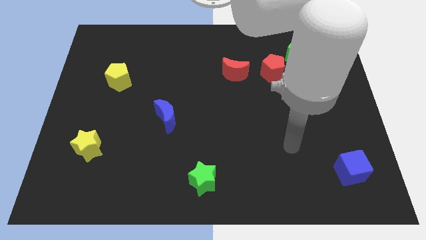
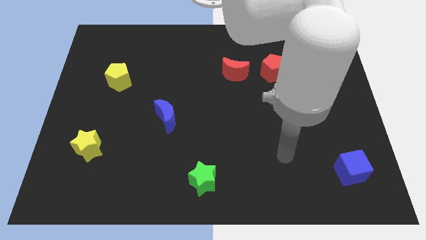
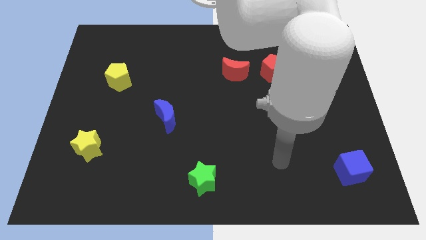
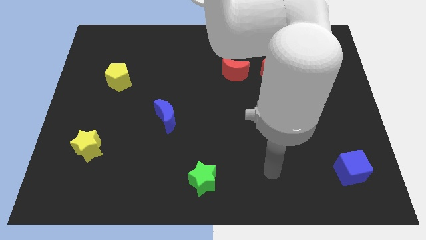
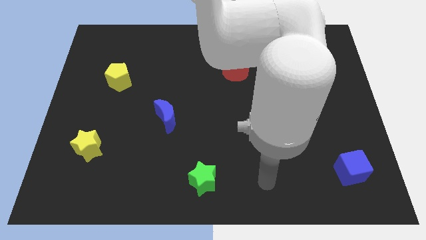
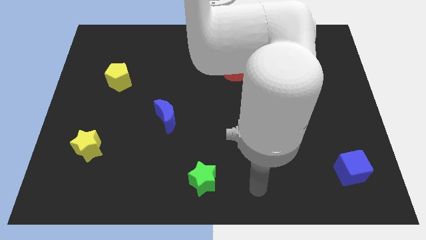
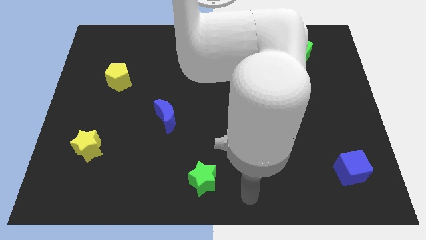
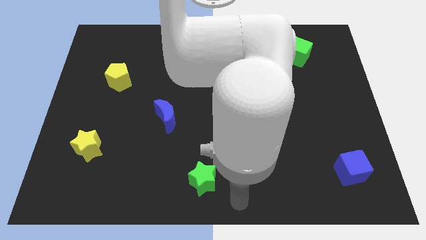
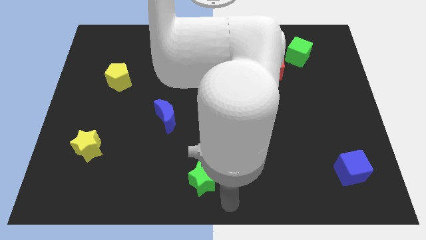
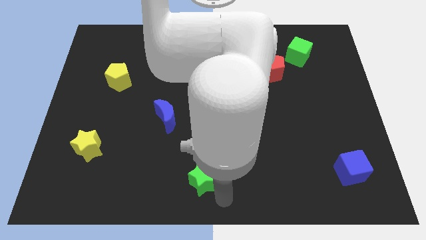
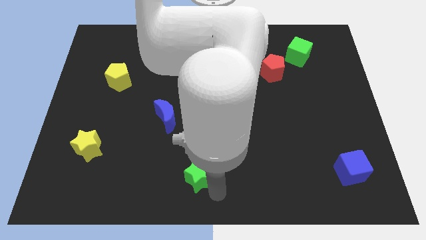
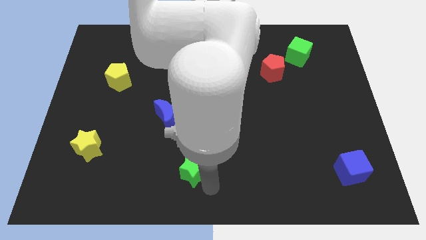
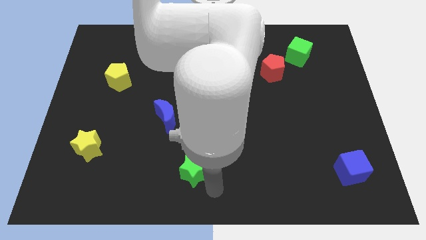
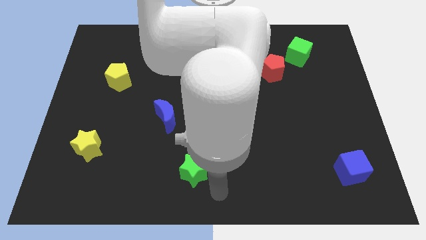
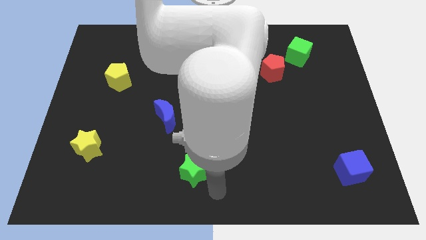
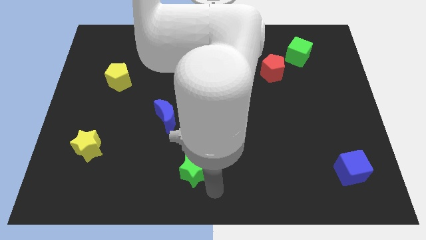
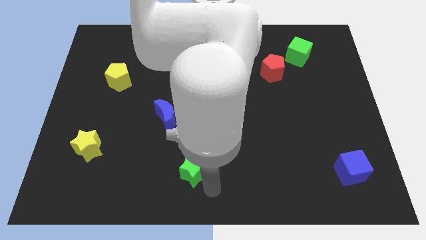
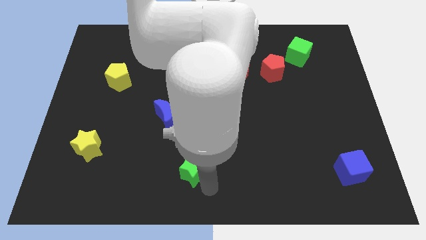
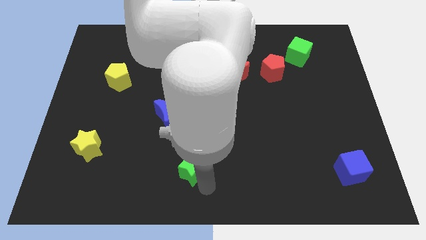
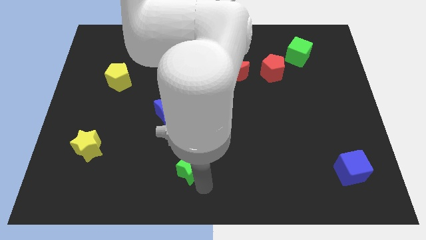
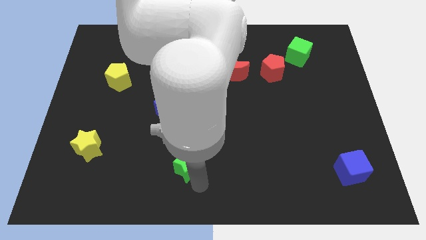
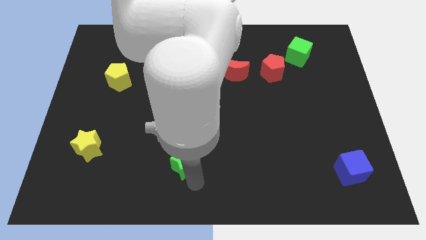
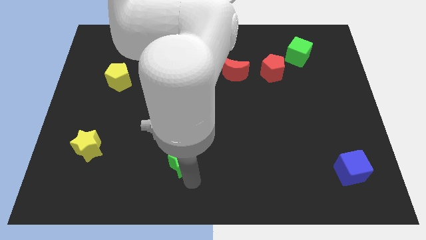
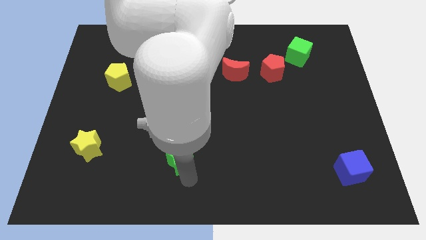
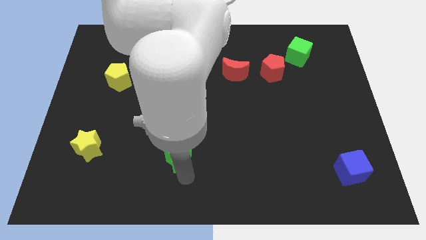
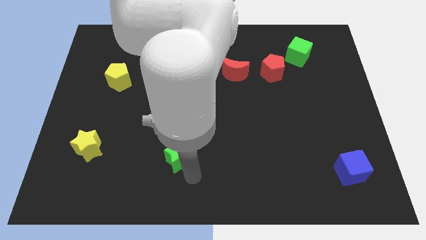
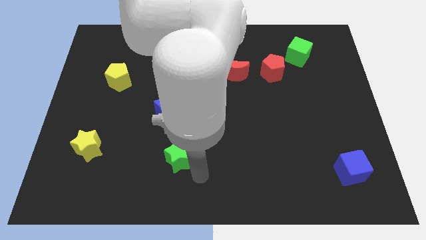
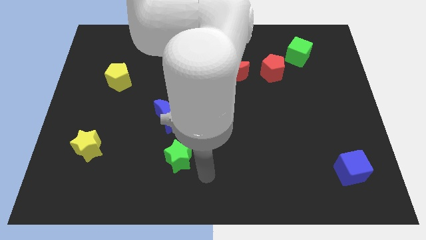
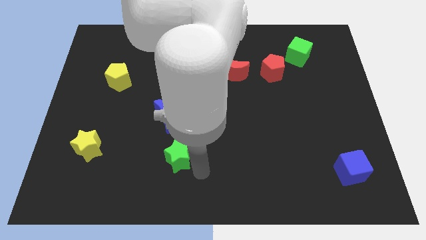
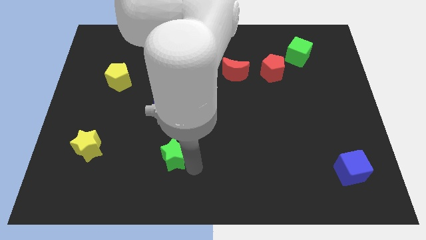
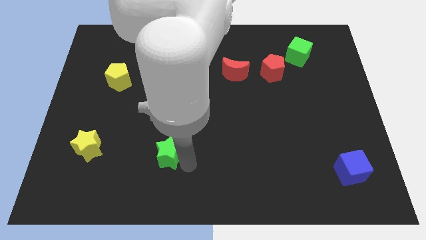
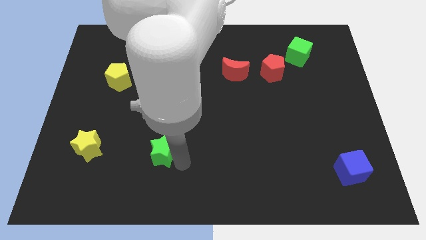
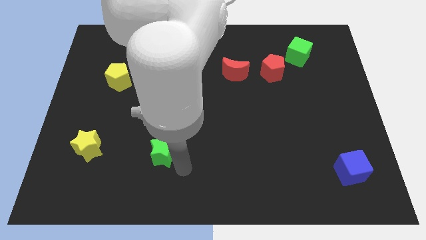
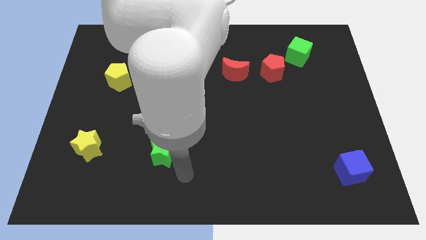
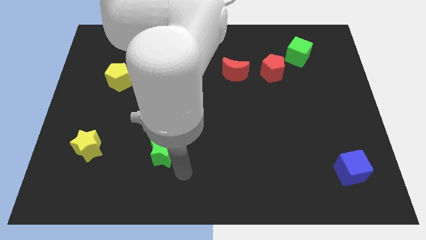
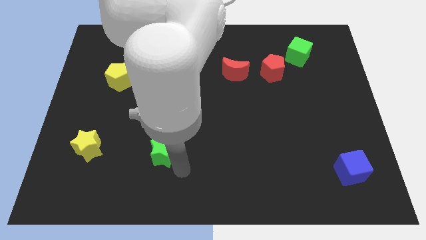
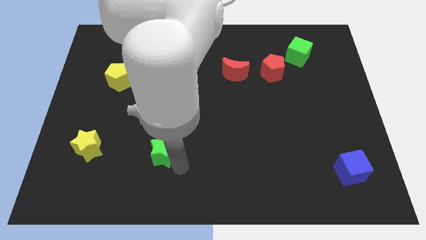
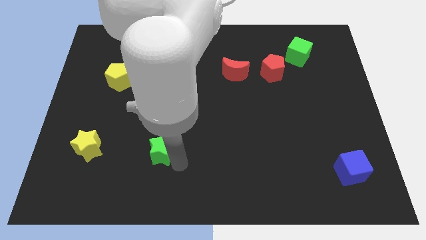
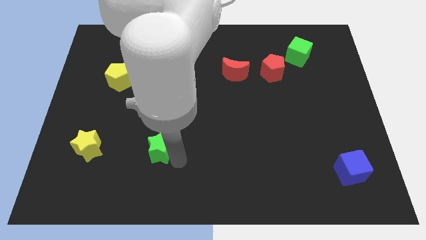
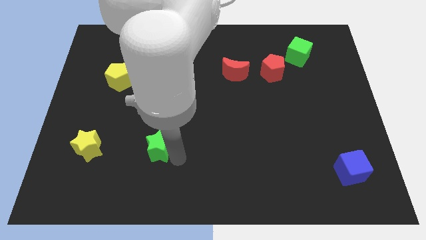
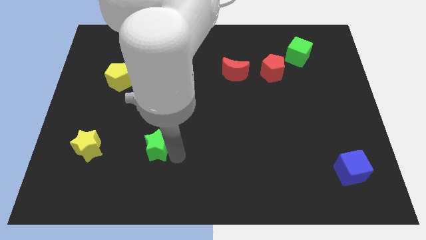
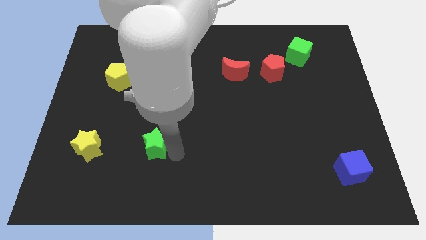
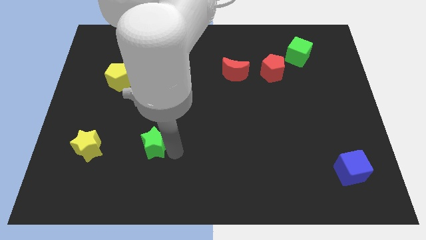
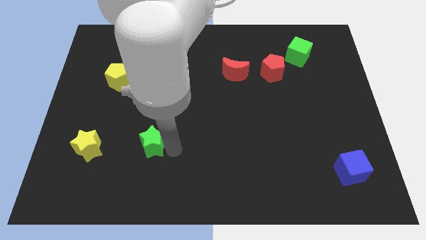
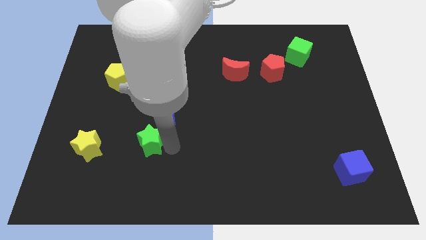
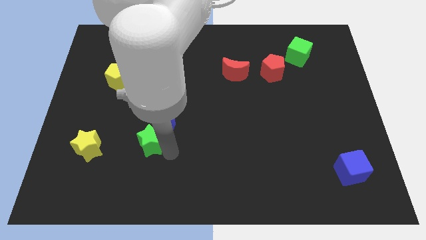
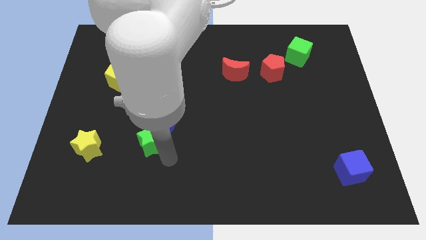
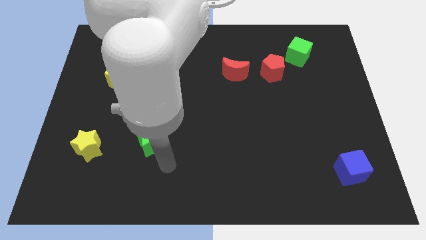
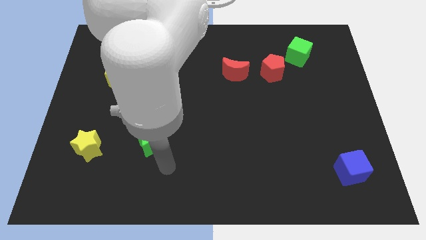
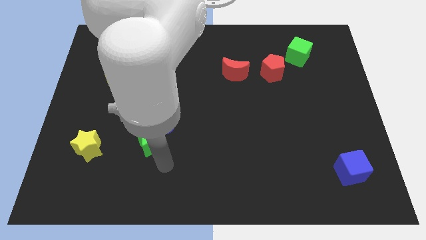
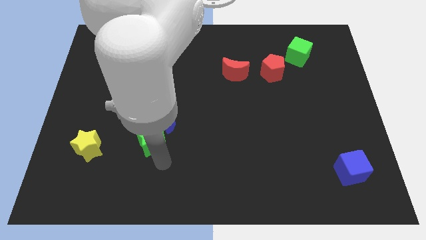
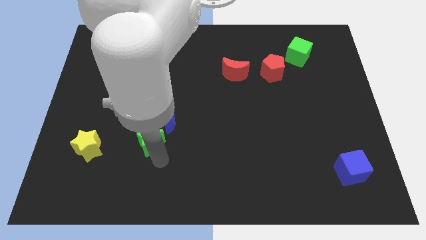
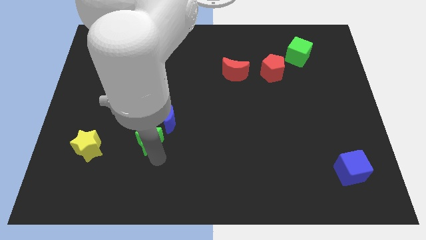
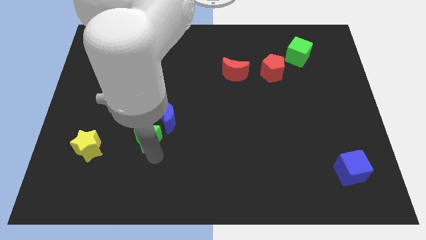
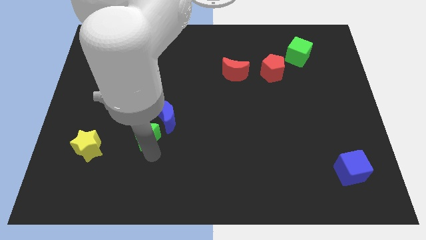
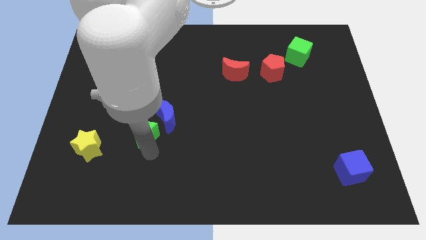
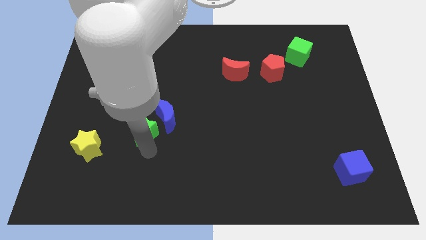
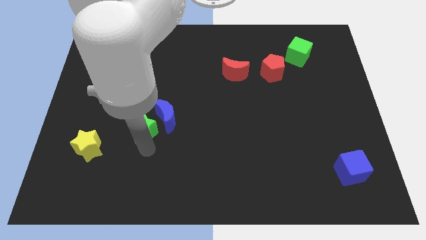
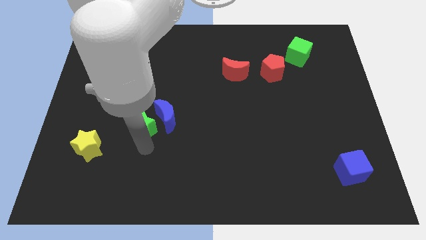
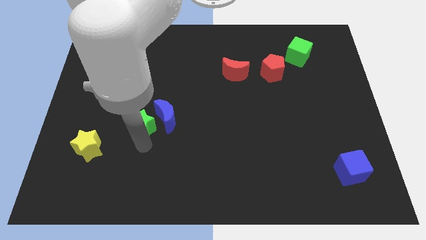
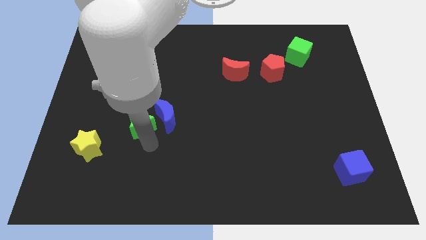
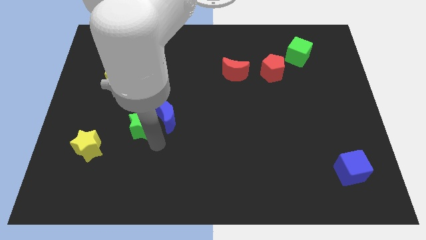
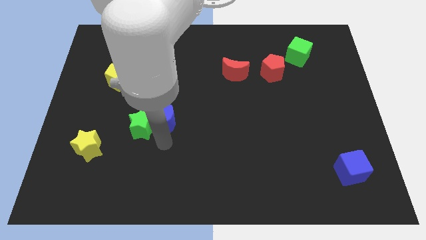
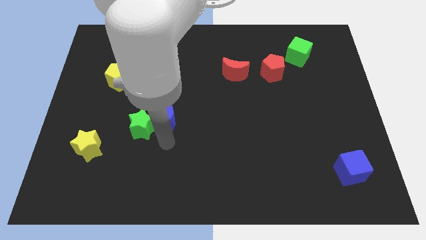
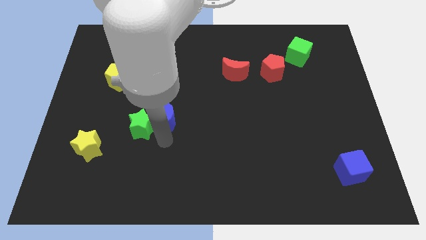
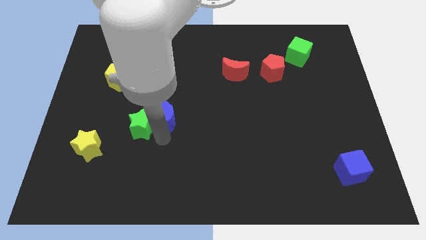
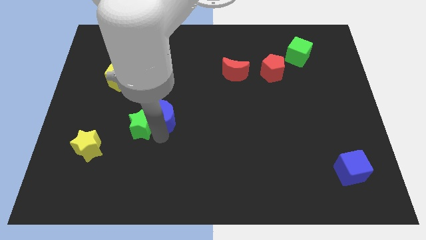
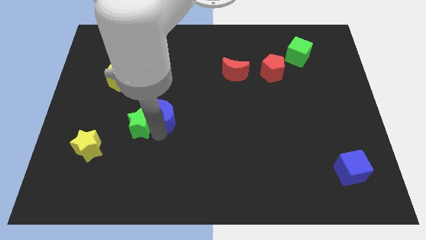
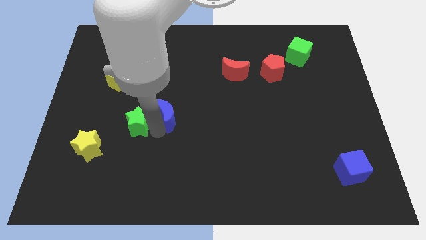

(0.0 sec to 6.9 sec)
slide the green star up and then left

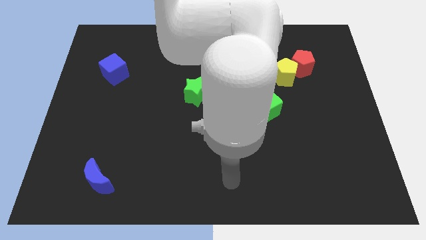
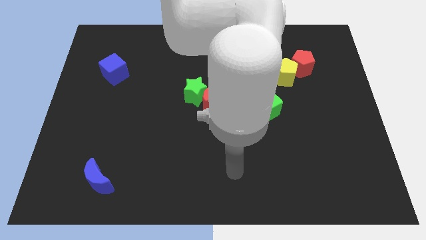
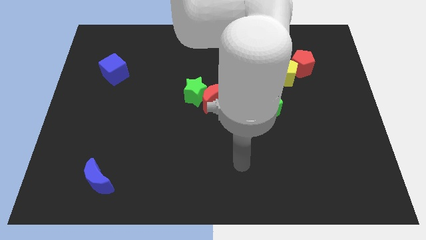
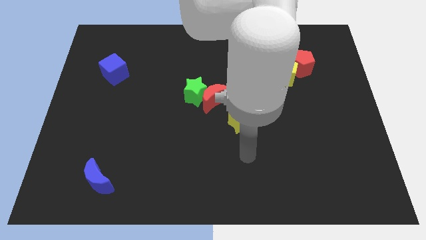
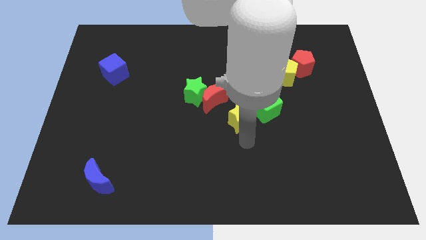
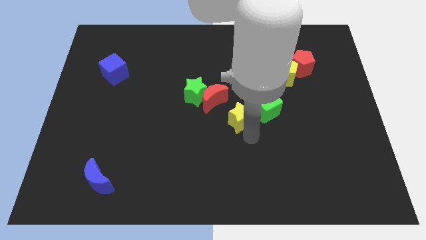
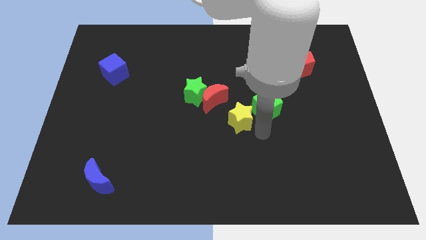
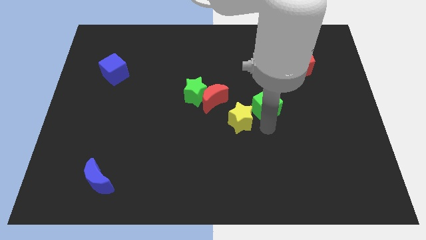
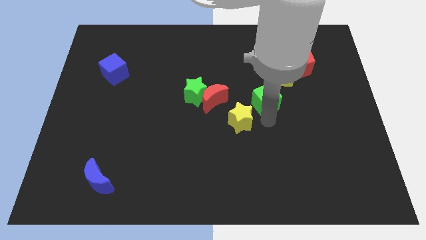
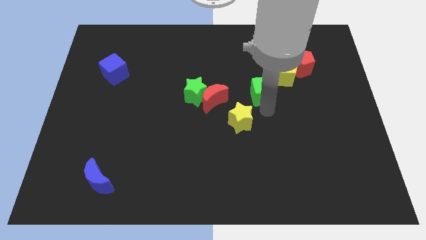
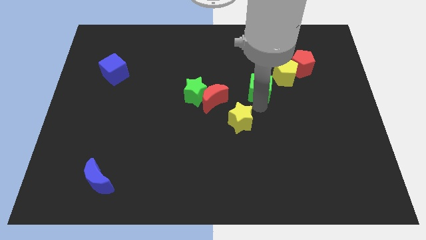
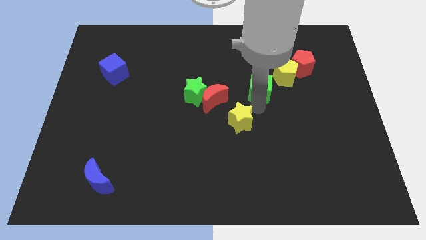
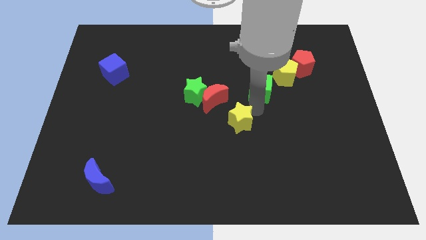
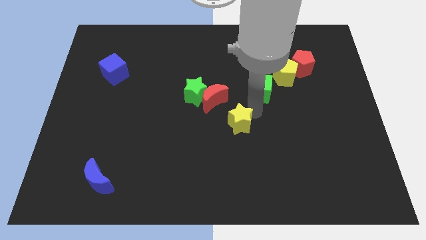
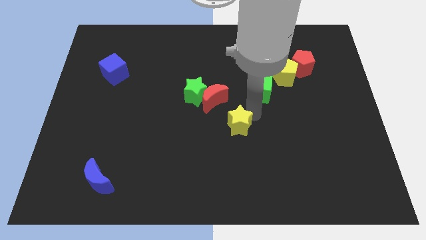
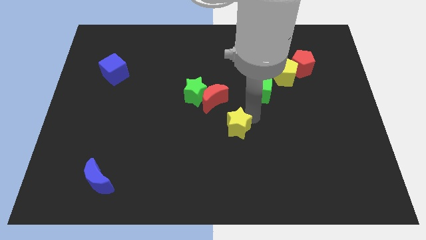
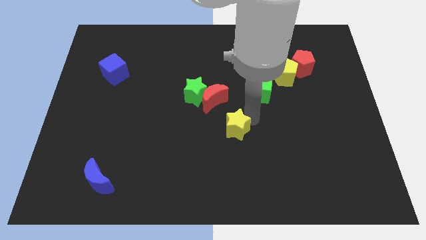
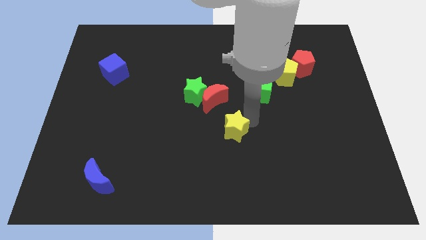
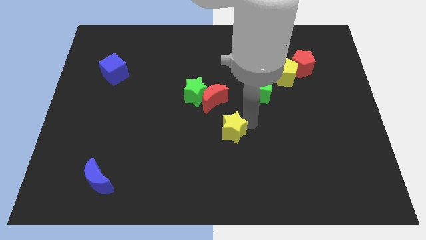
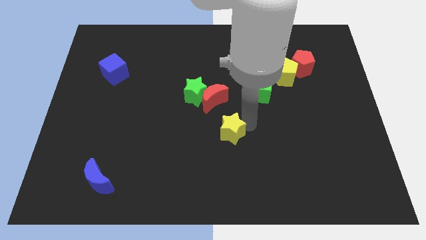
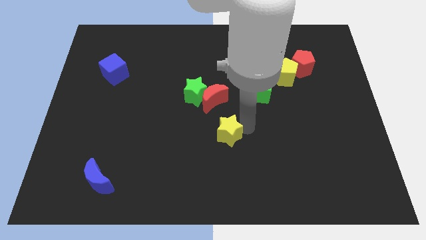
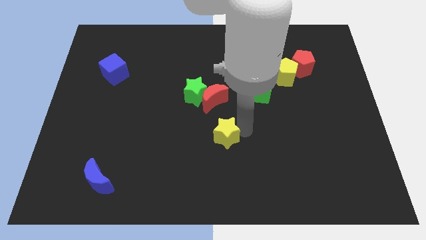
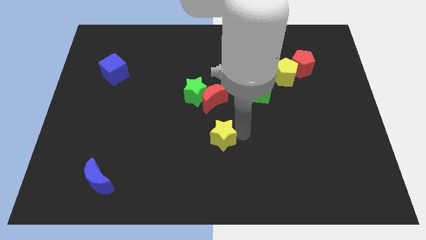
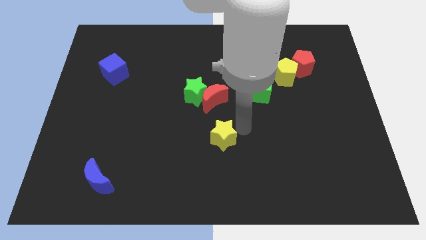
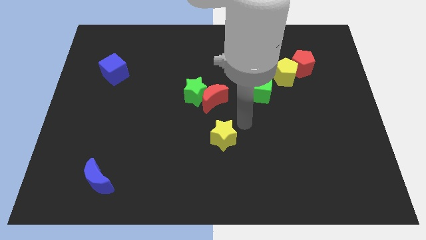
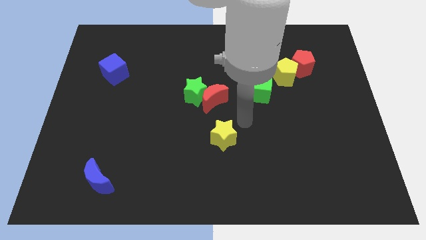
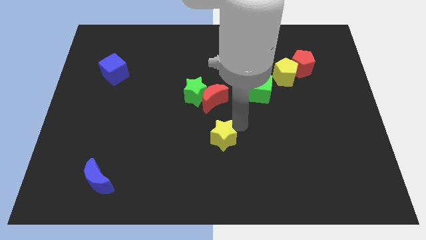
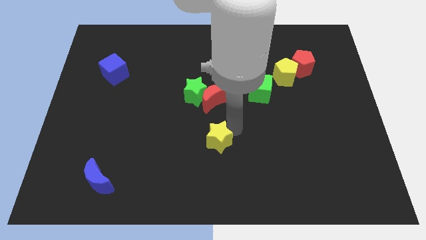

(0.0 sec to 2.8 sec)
move the yellow star diagonally downwards and to the left a bit
